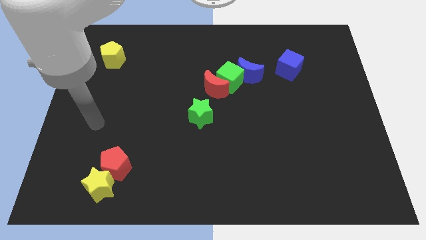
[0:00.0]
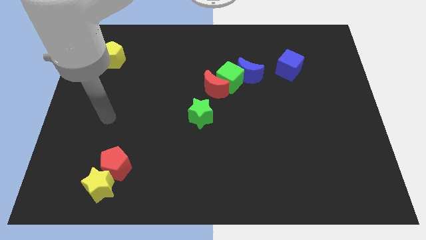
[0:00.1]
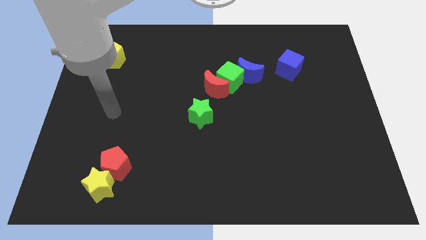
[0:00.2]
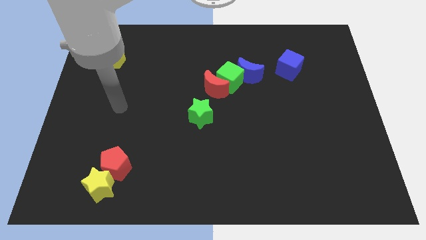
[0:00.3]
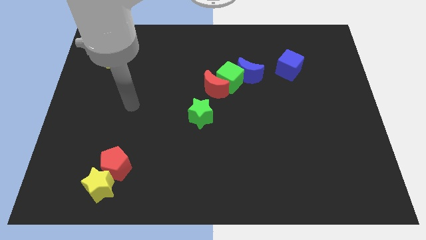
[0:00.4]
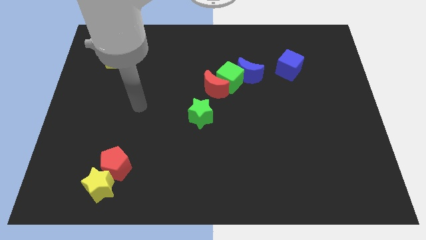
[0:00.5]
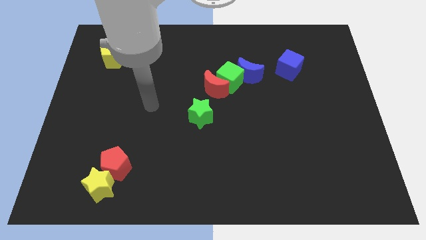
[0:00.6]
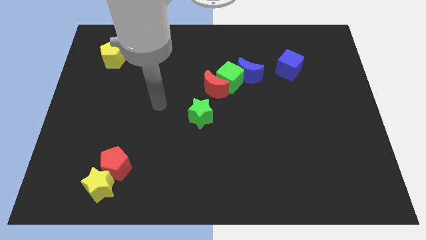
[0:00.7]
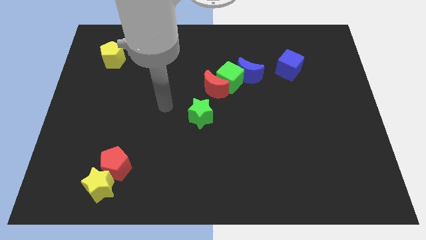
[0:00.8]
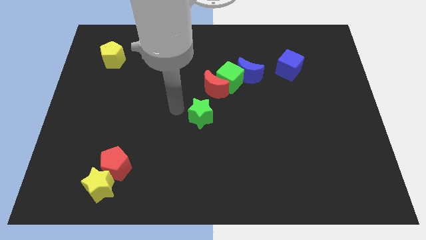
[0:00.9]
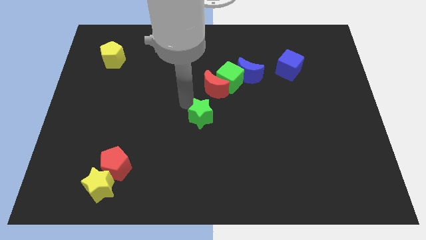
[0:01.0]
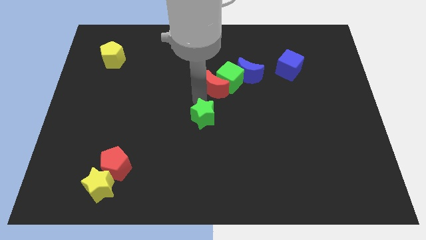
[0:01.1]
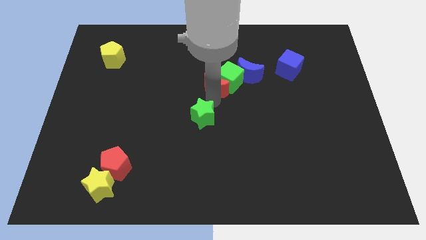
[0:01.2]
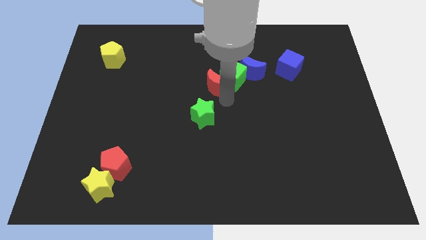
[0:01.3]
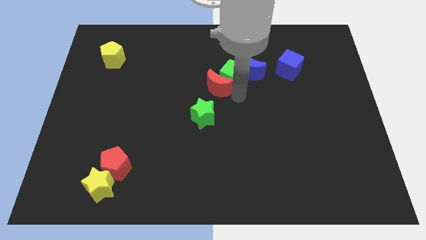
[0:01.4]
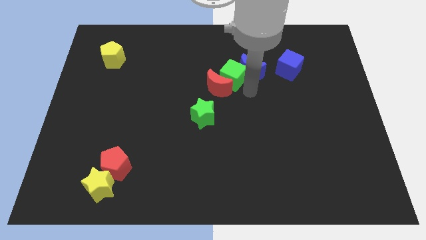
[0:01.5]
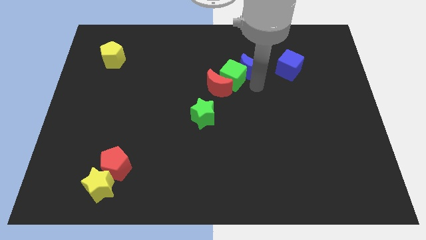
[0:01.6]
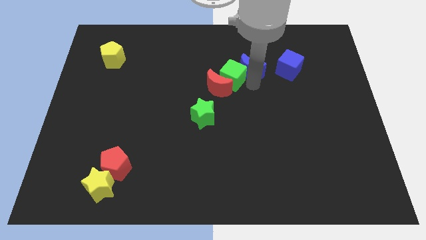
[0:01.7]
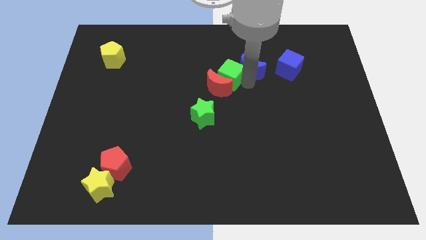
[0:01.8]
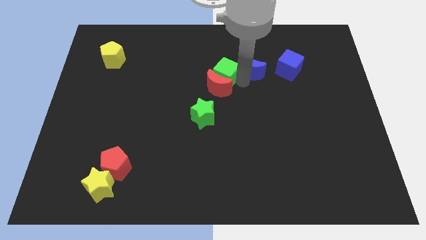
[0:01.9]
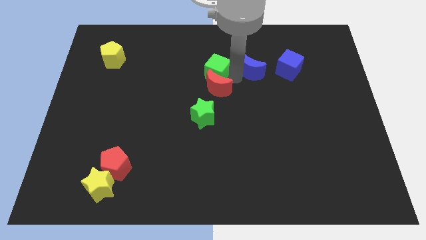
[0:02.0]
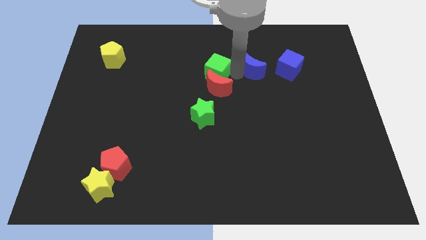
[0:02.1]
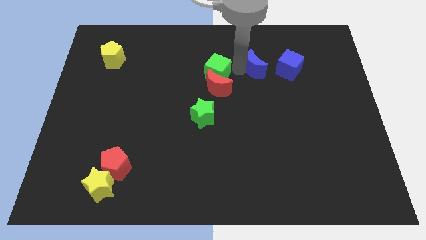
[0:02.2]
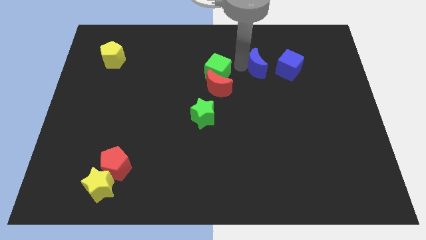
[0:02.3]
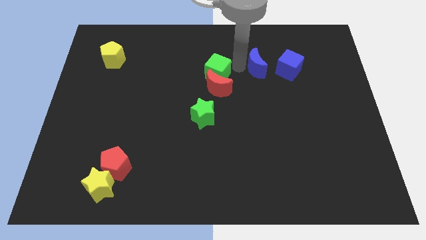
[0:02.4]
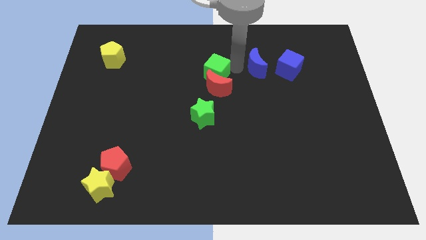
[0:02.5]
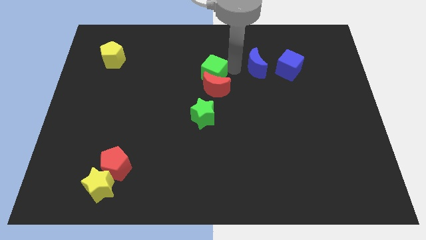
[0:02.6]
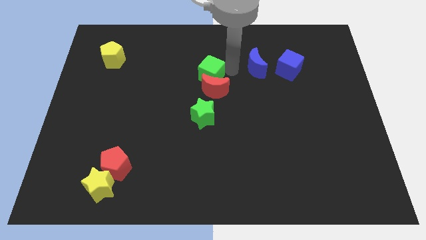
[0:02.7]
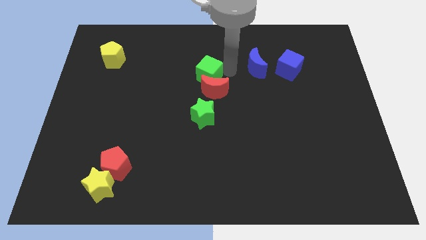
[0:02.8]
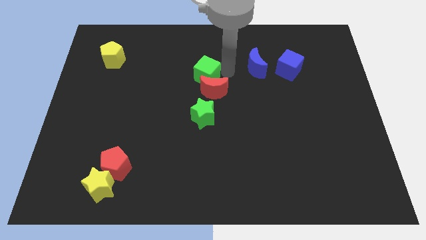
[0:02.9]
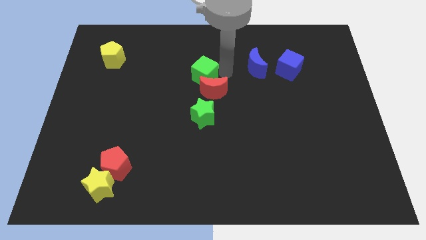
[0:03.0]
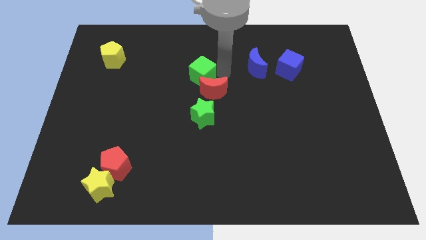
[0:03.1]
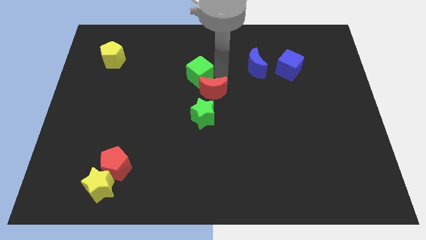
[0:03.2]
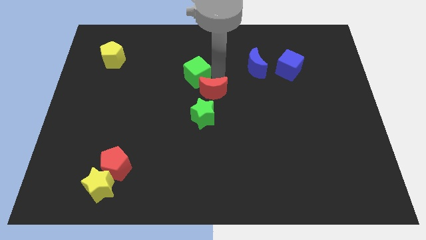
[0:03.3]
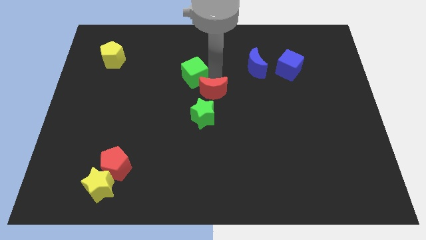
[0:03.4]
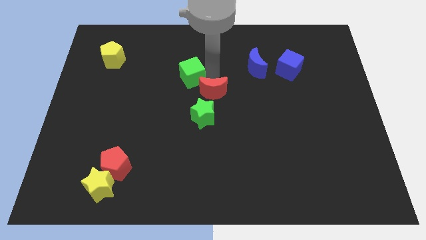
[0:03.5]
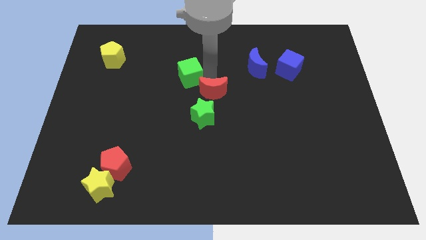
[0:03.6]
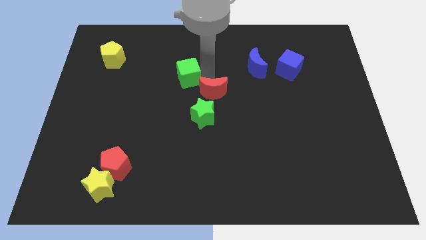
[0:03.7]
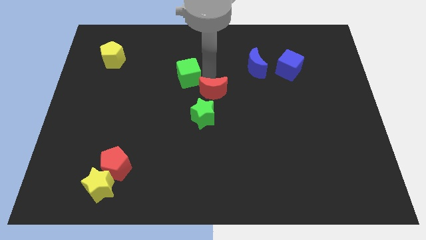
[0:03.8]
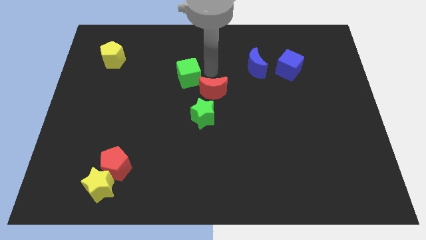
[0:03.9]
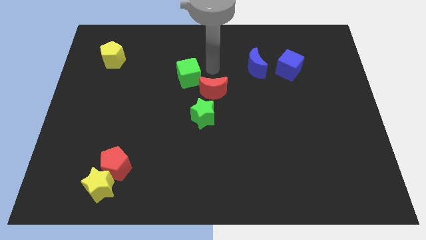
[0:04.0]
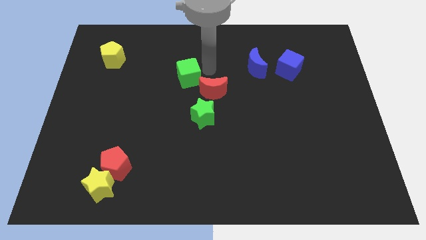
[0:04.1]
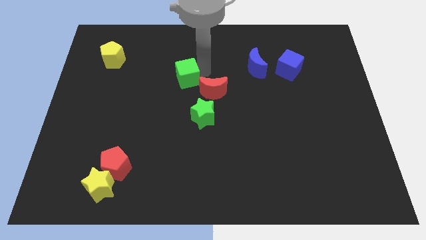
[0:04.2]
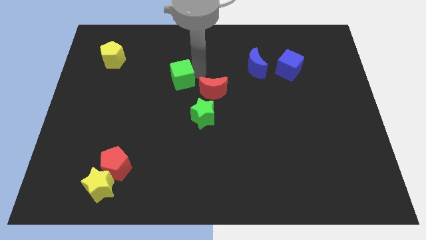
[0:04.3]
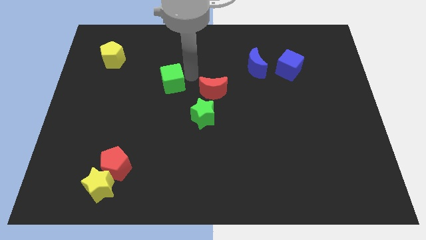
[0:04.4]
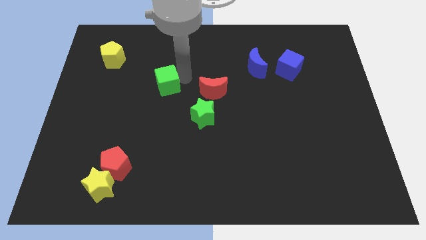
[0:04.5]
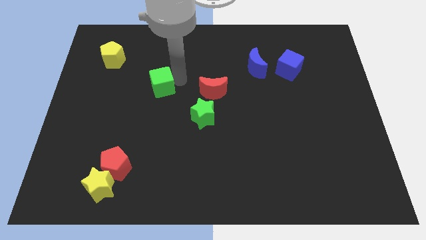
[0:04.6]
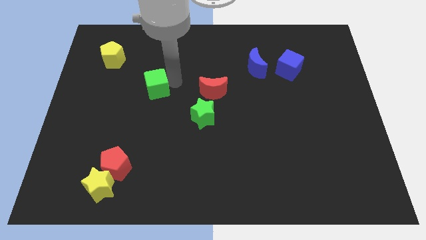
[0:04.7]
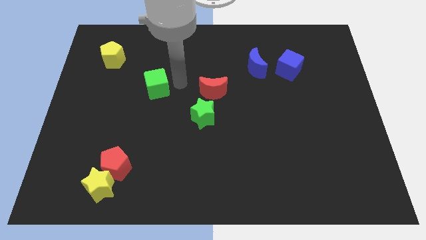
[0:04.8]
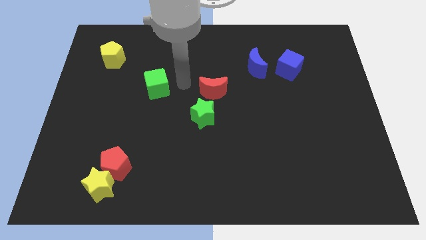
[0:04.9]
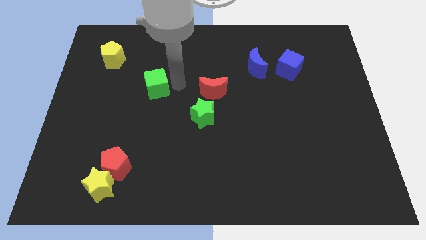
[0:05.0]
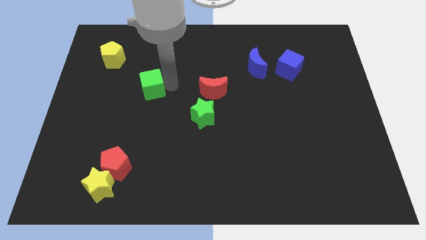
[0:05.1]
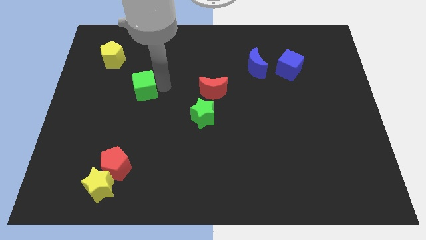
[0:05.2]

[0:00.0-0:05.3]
slide the green cube left

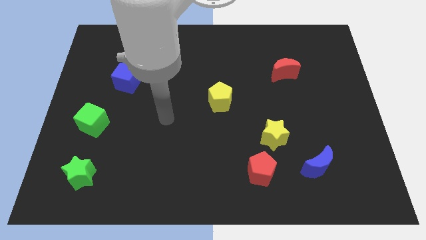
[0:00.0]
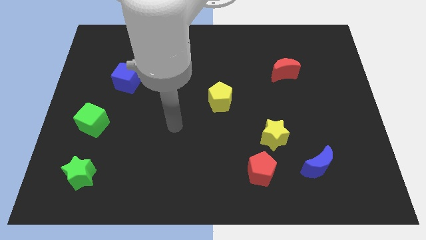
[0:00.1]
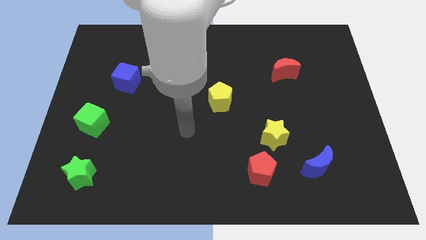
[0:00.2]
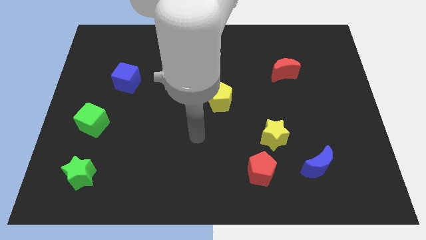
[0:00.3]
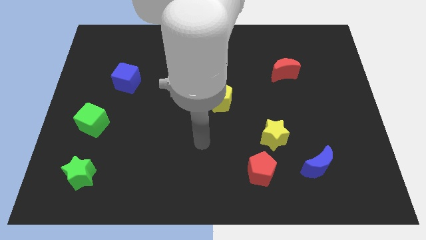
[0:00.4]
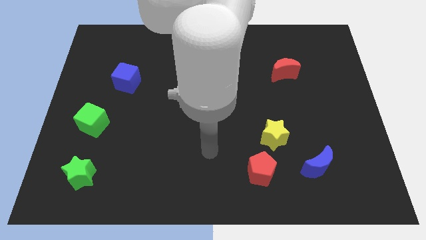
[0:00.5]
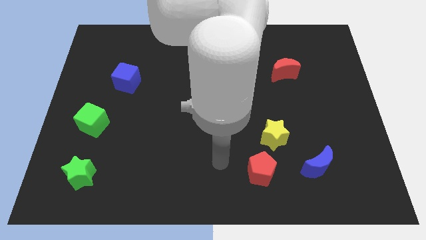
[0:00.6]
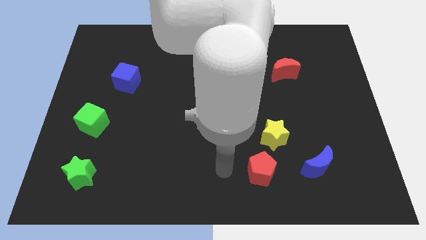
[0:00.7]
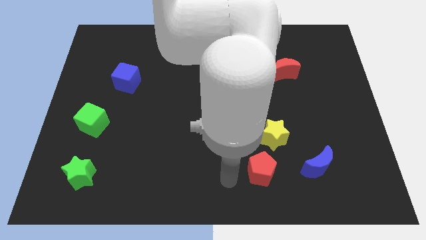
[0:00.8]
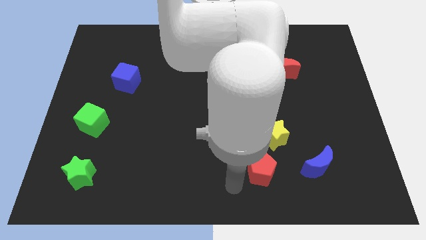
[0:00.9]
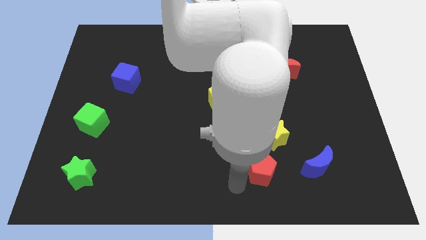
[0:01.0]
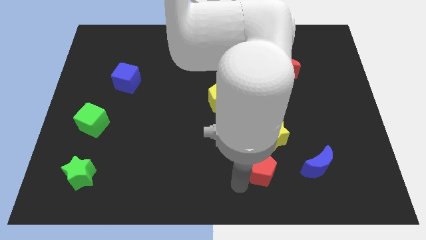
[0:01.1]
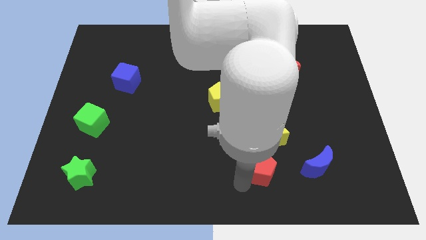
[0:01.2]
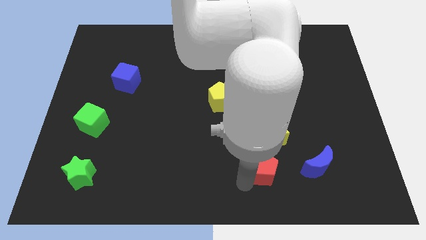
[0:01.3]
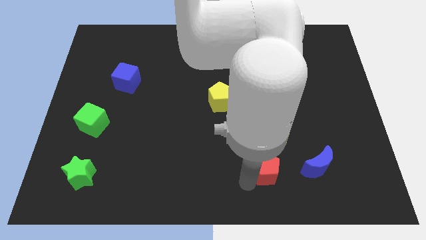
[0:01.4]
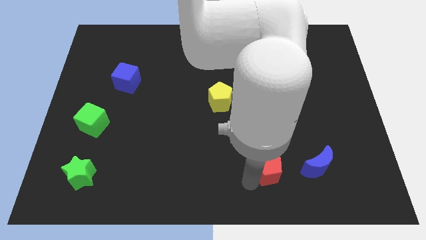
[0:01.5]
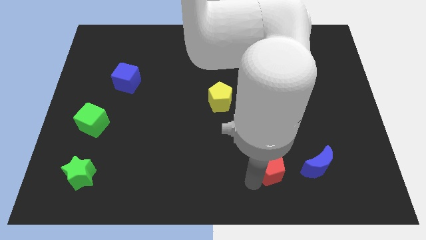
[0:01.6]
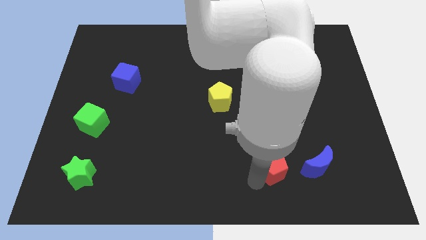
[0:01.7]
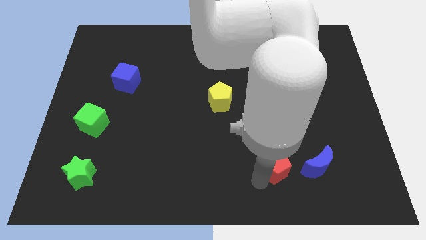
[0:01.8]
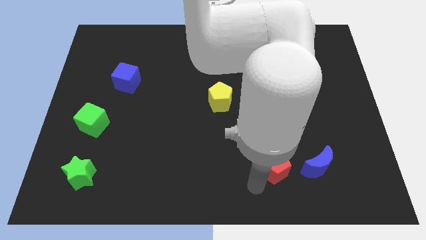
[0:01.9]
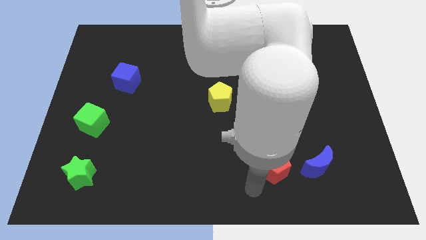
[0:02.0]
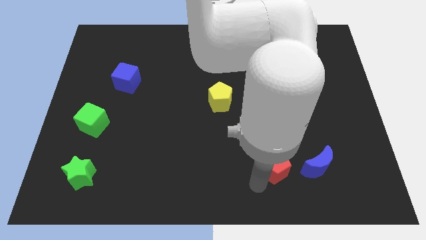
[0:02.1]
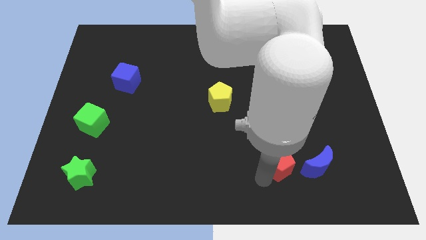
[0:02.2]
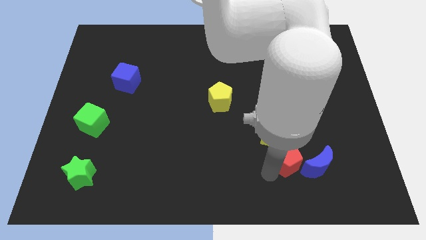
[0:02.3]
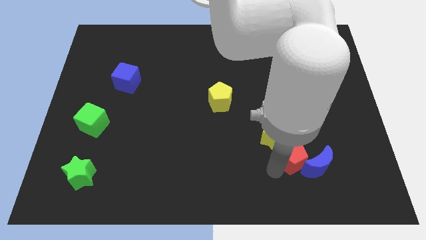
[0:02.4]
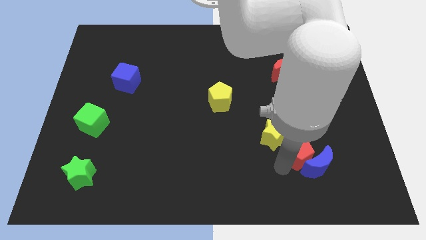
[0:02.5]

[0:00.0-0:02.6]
move the red pentagon slightly up and right
